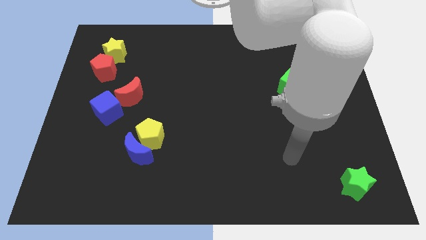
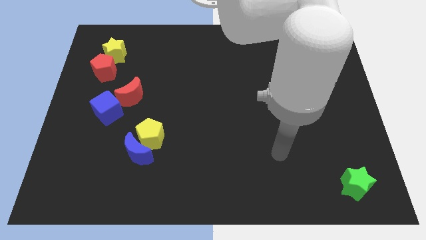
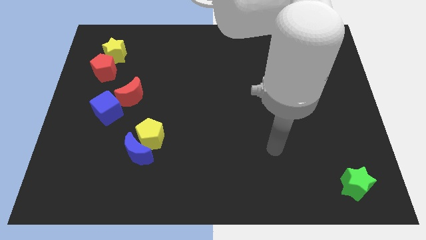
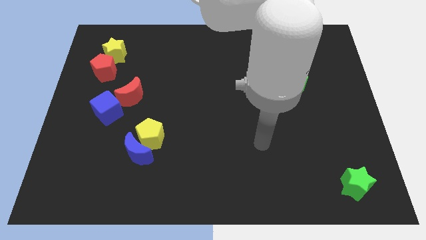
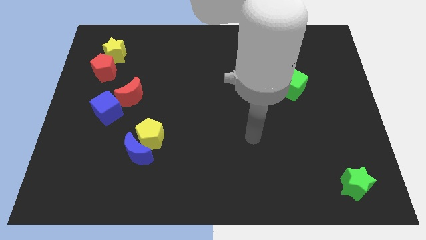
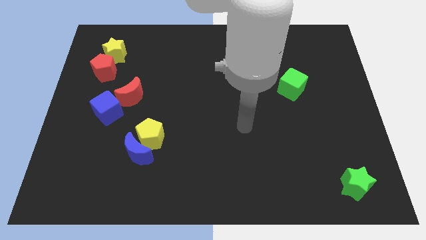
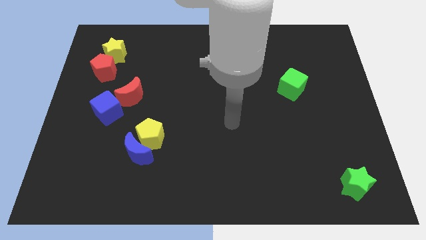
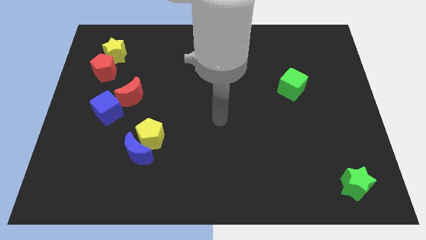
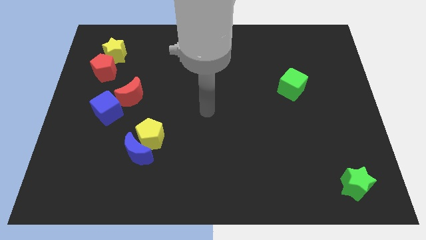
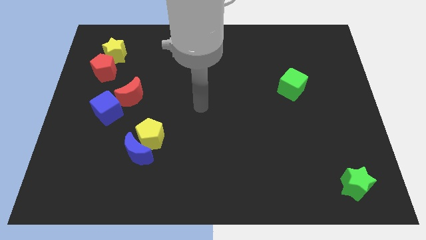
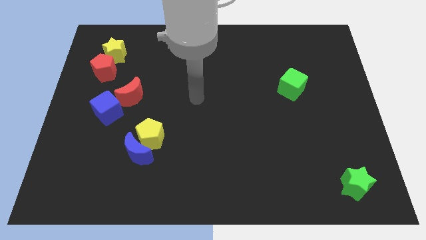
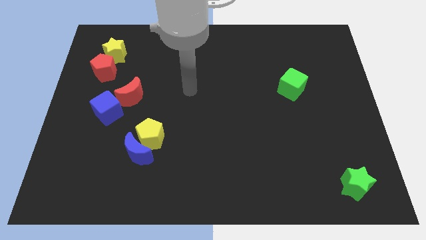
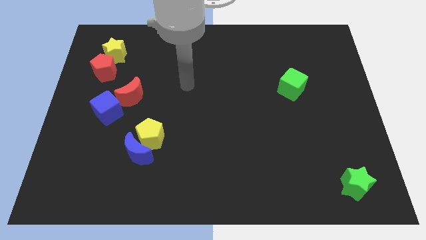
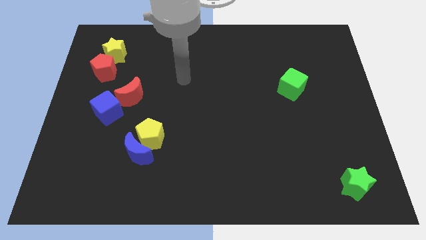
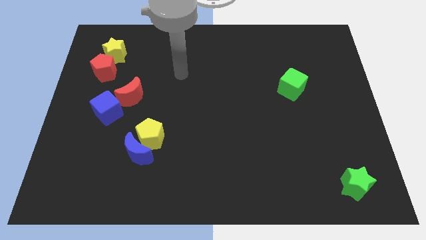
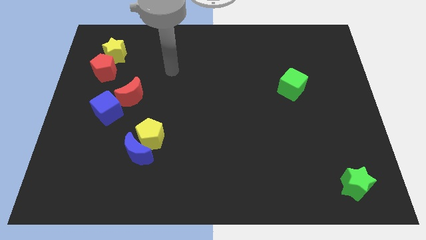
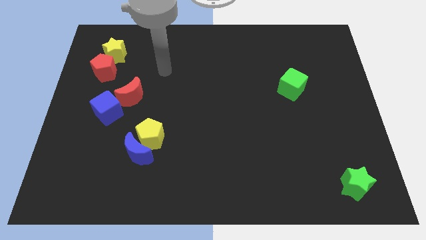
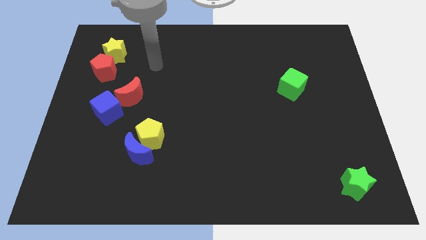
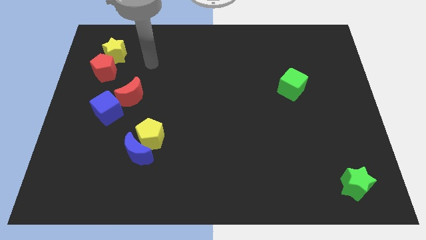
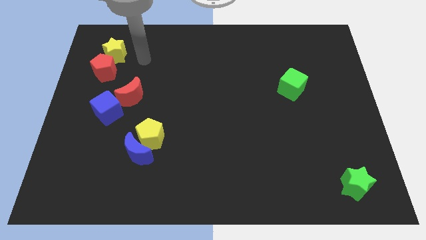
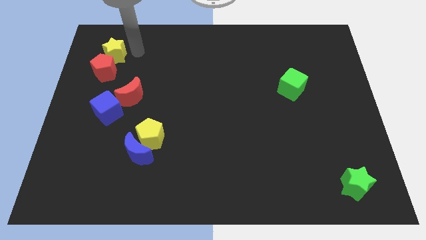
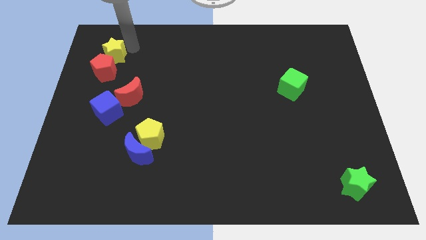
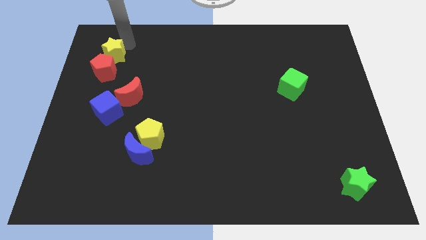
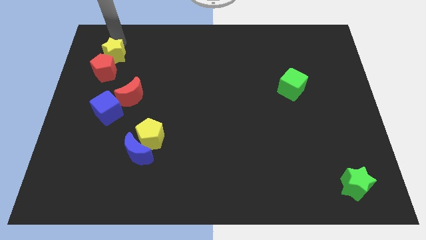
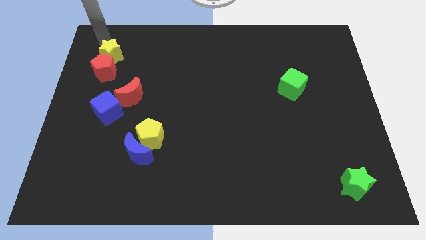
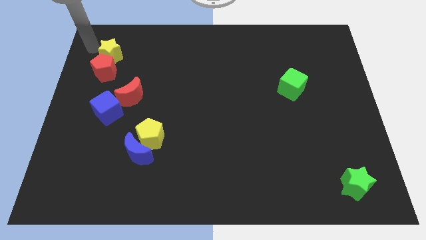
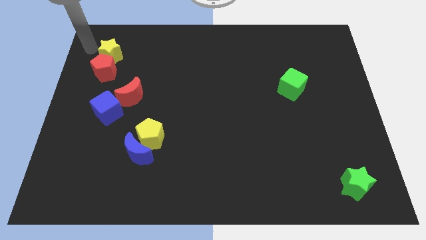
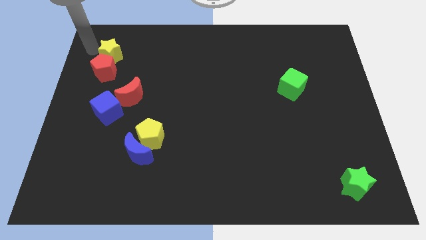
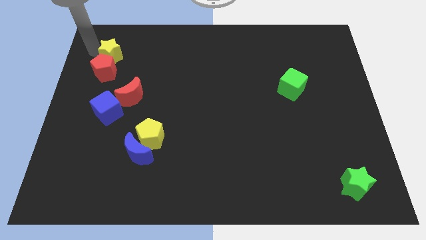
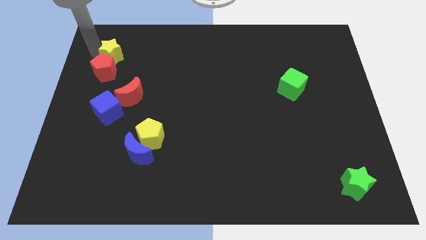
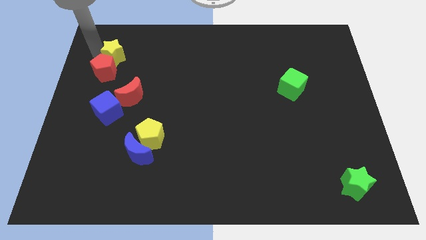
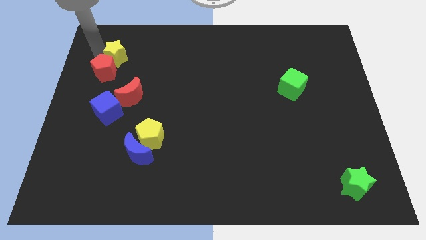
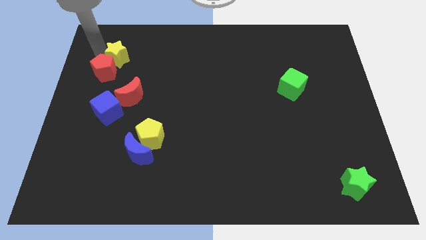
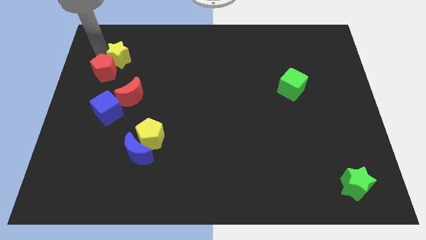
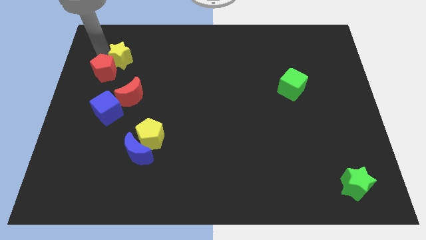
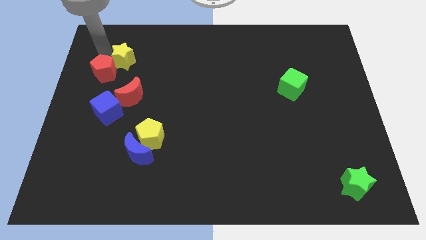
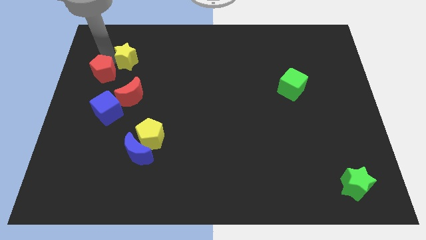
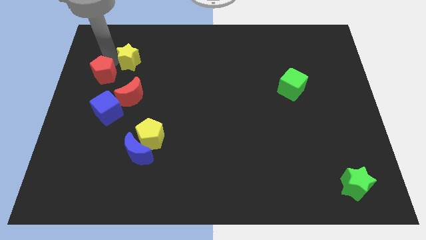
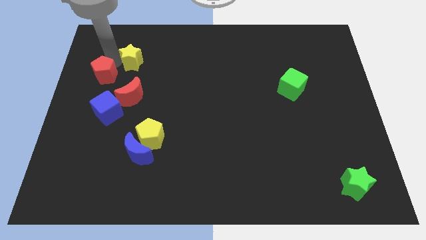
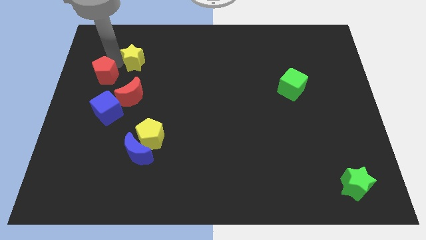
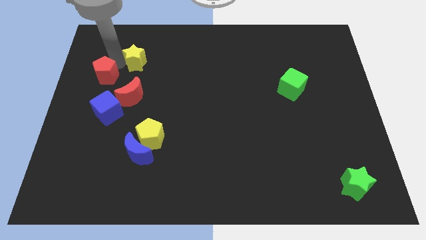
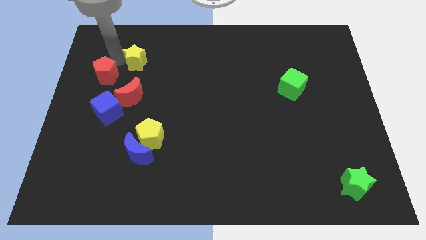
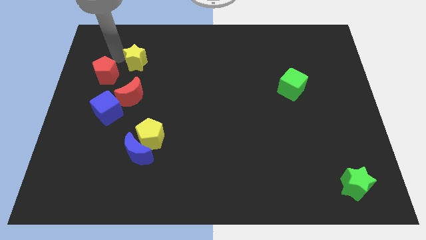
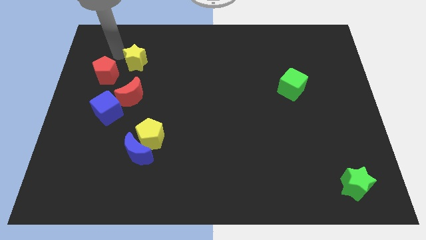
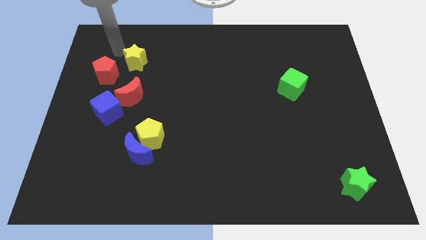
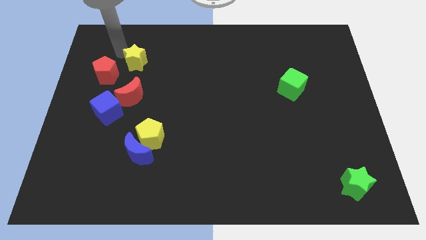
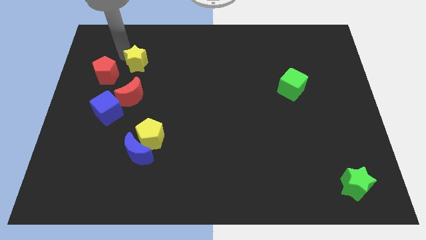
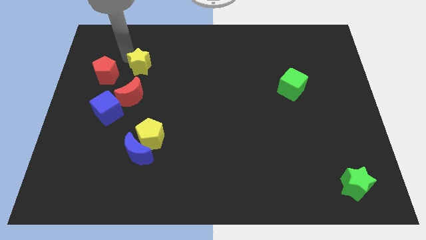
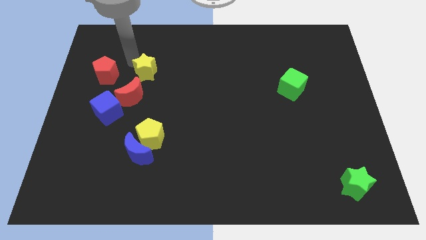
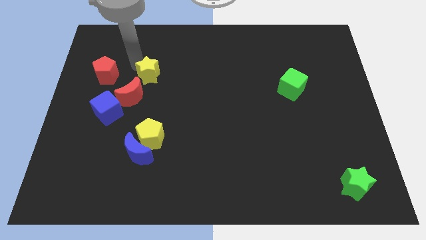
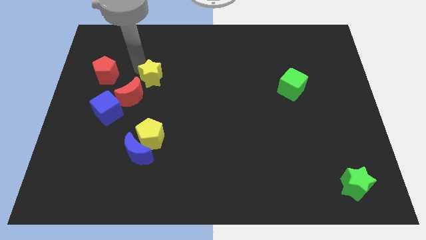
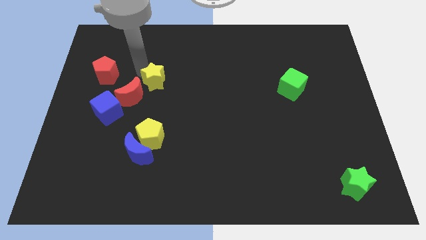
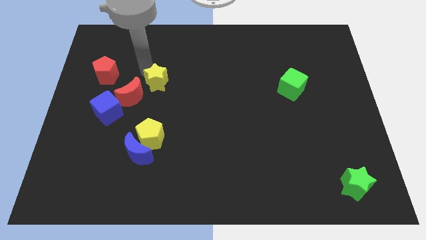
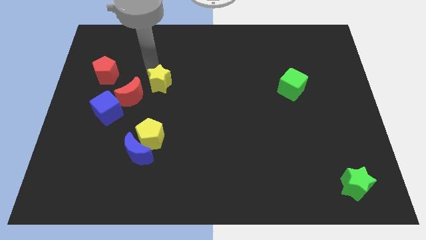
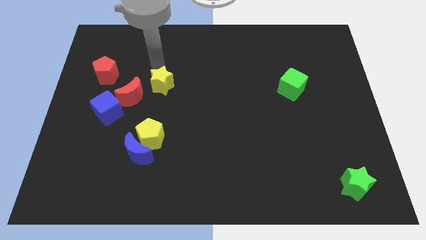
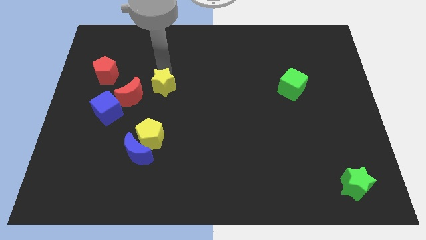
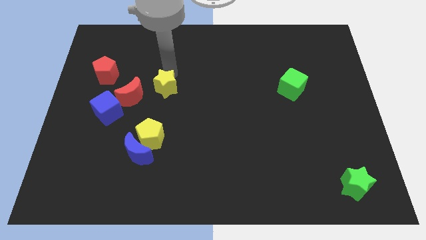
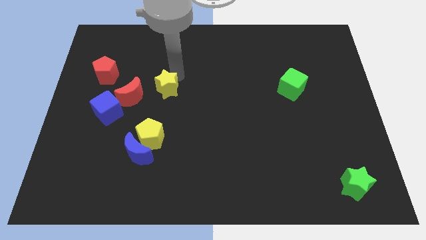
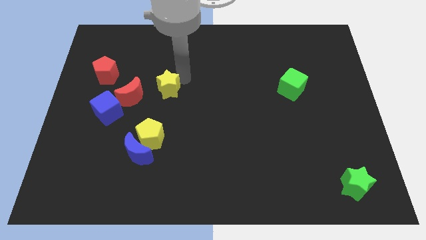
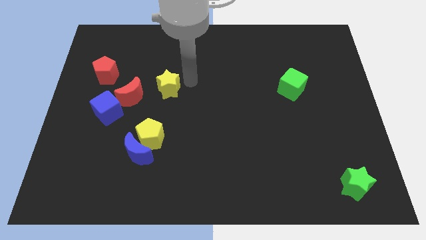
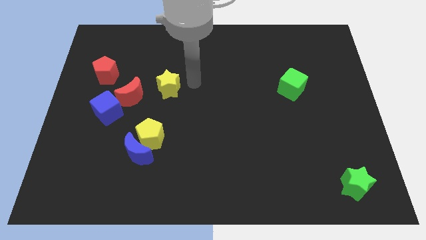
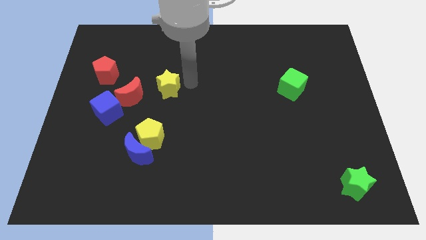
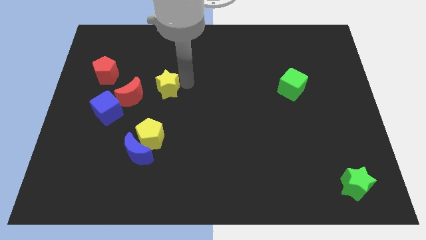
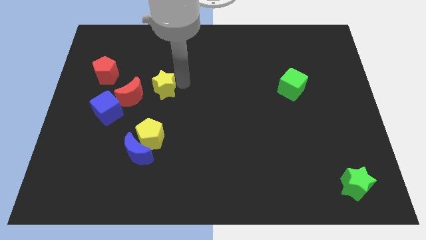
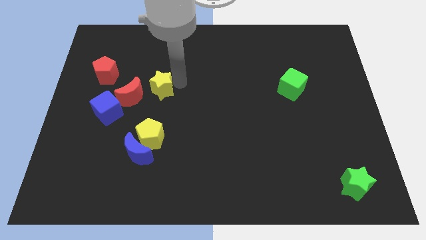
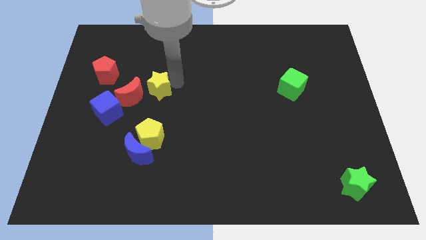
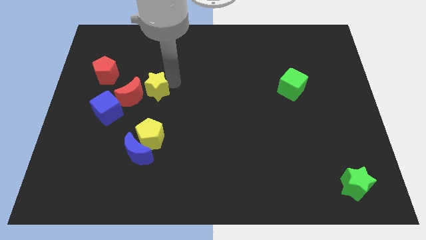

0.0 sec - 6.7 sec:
move the yellow star diagonally up and to the right of the blue cube
